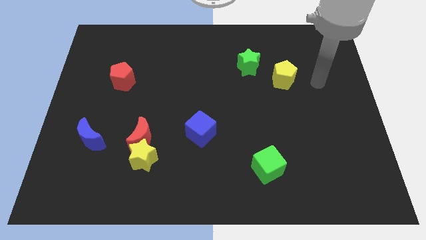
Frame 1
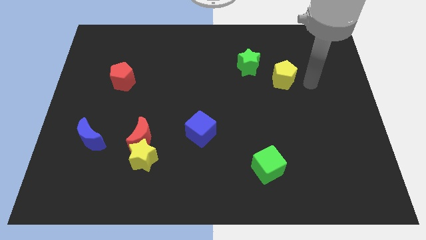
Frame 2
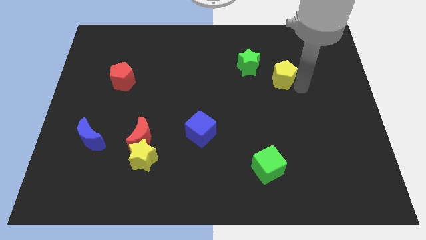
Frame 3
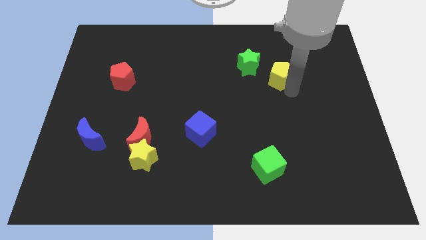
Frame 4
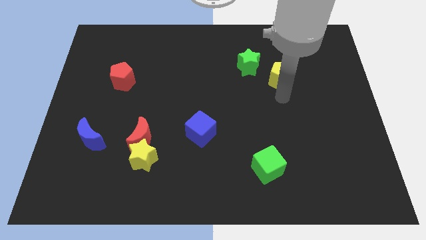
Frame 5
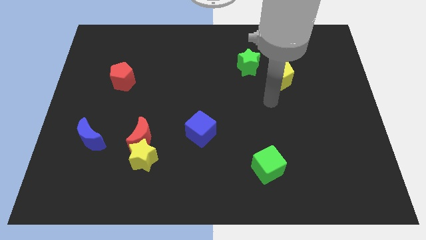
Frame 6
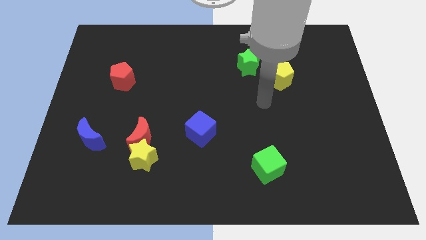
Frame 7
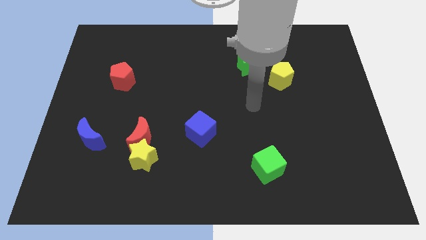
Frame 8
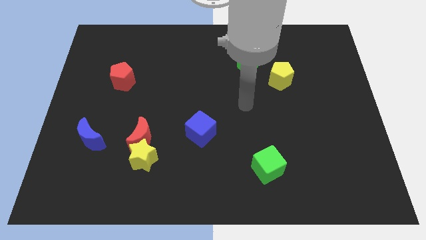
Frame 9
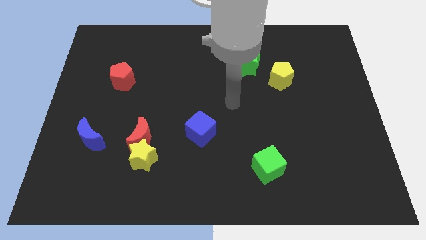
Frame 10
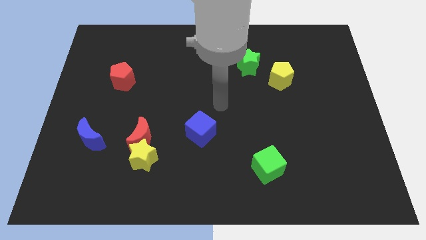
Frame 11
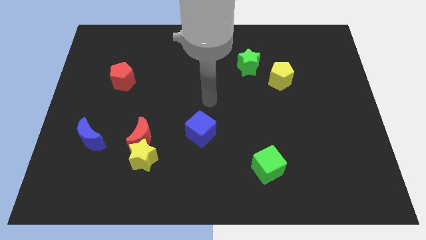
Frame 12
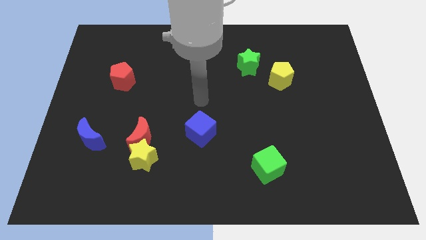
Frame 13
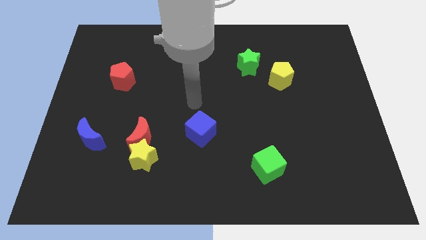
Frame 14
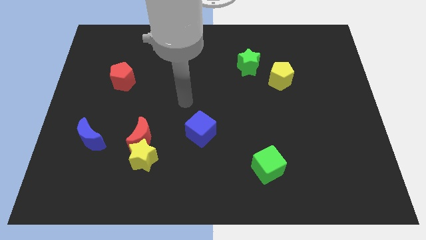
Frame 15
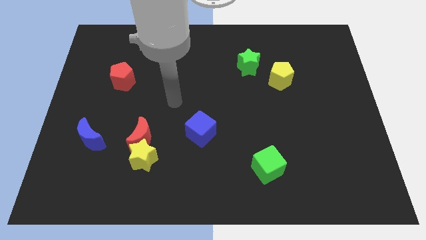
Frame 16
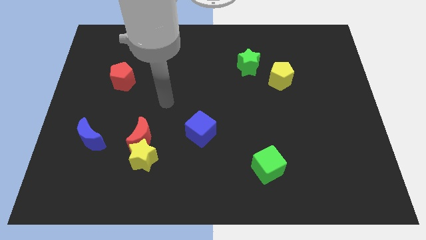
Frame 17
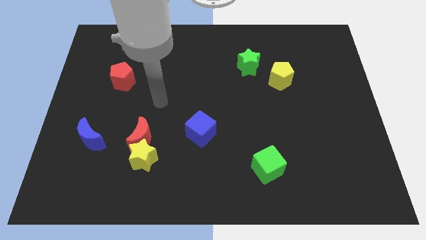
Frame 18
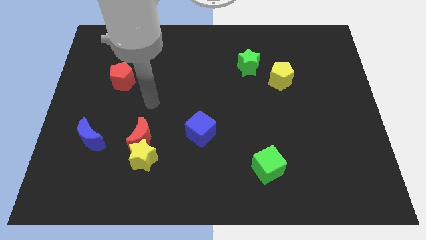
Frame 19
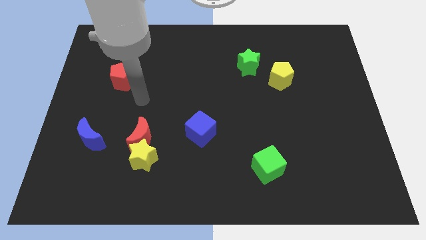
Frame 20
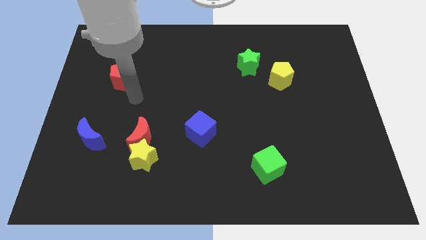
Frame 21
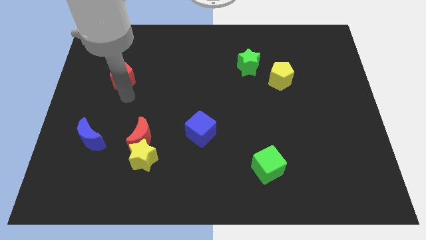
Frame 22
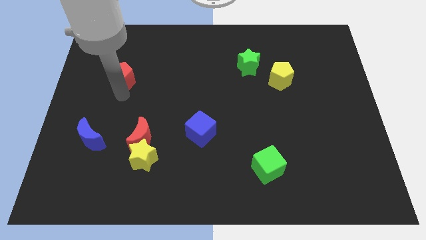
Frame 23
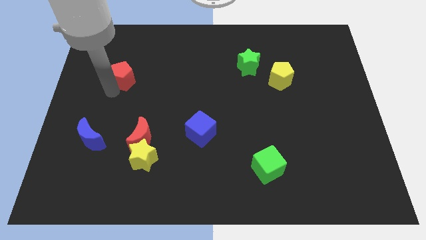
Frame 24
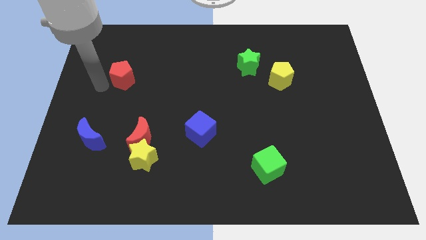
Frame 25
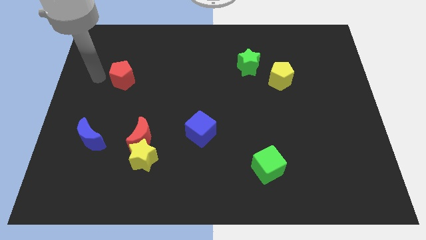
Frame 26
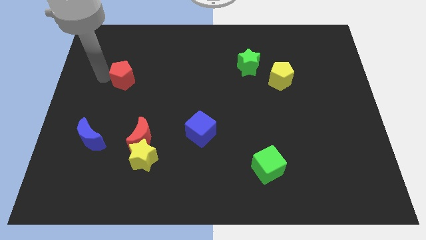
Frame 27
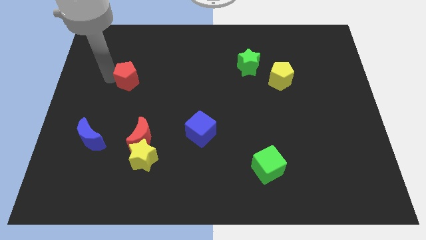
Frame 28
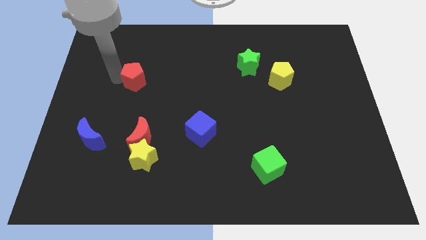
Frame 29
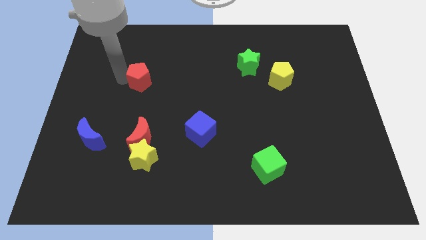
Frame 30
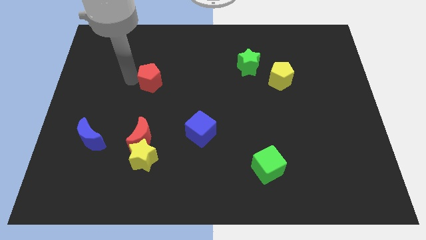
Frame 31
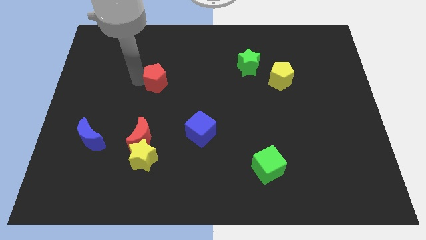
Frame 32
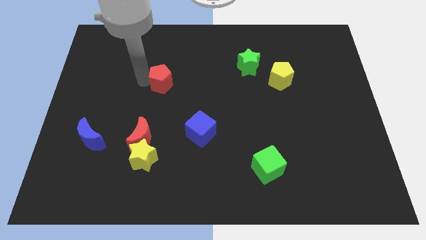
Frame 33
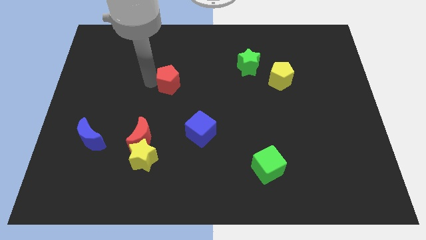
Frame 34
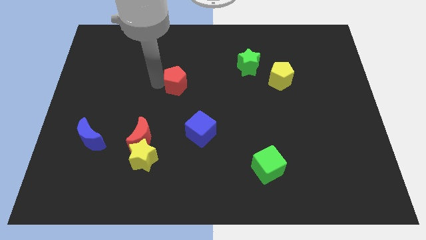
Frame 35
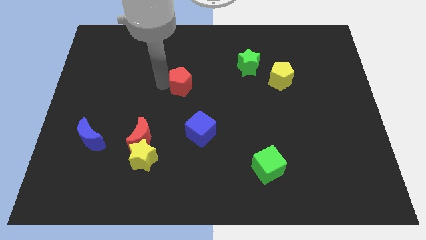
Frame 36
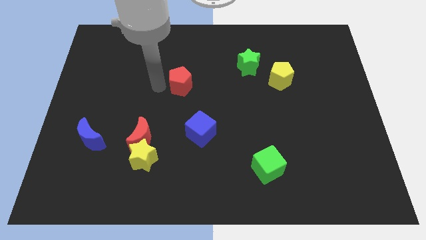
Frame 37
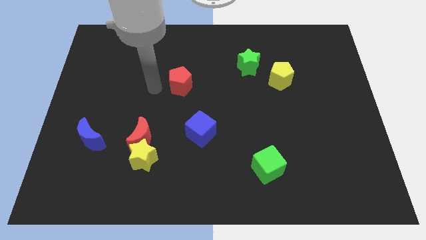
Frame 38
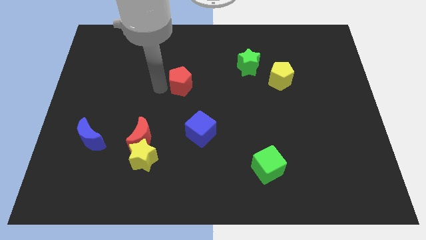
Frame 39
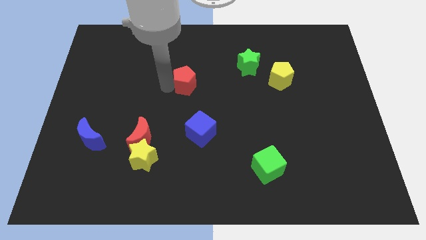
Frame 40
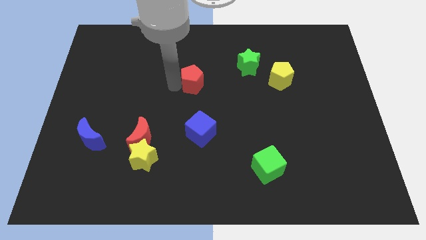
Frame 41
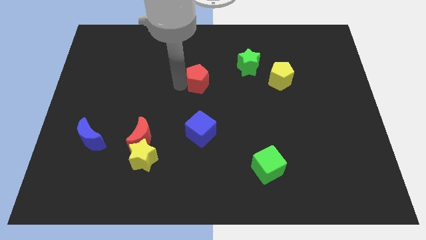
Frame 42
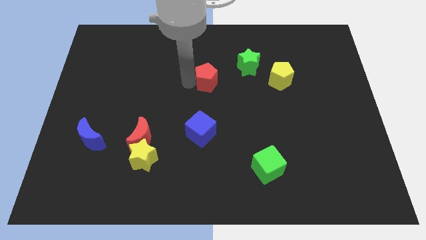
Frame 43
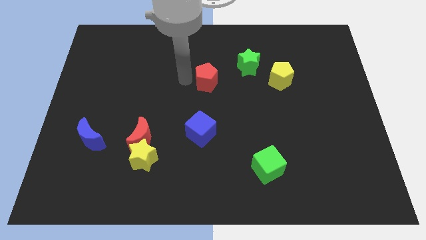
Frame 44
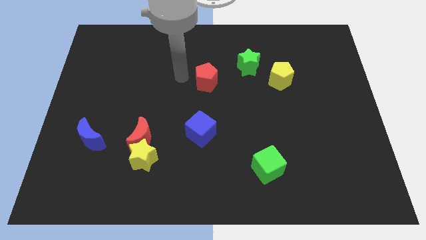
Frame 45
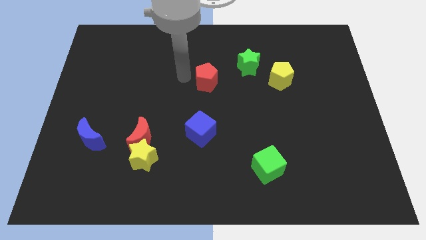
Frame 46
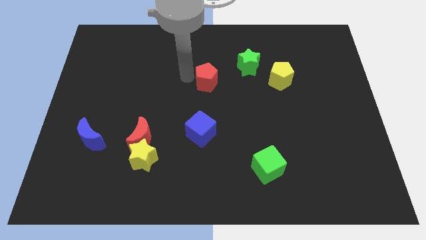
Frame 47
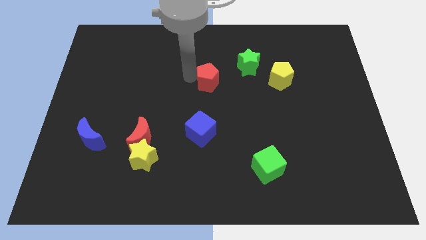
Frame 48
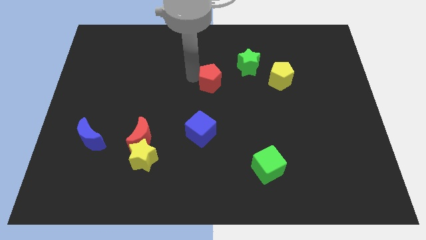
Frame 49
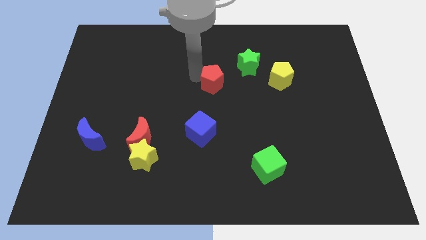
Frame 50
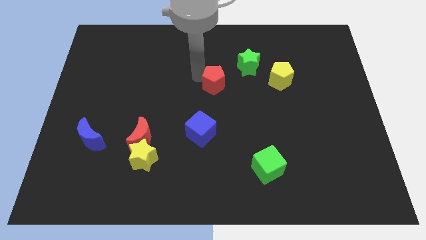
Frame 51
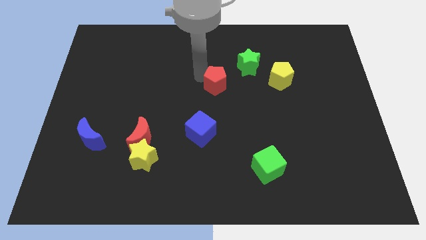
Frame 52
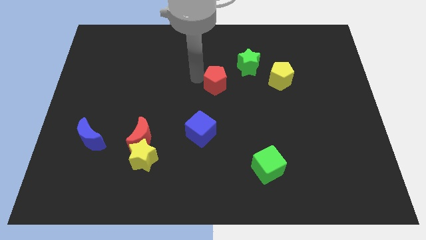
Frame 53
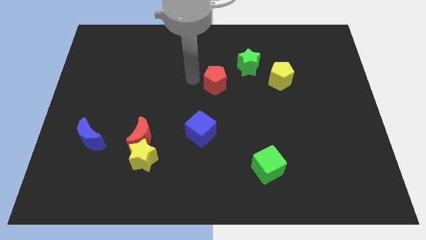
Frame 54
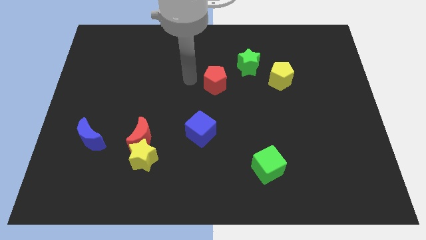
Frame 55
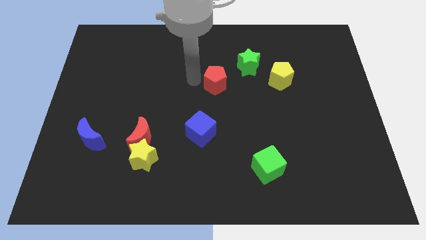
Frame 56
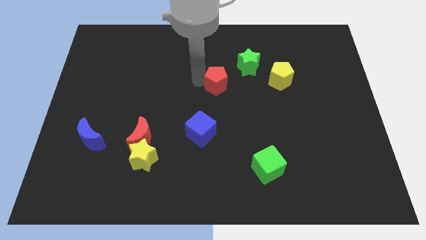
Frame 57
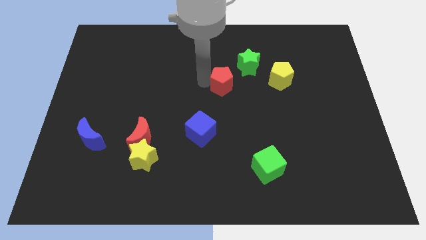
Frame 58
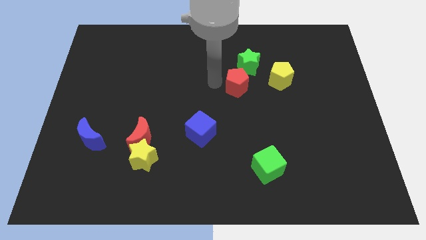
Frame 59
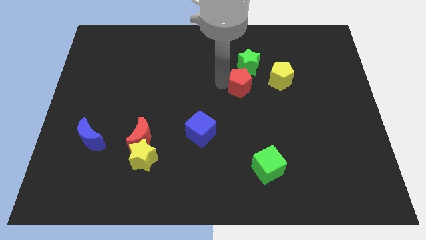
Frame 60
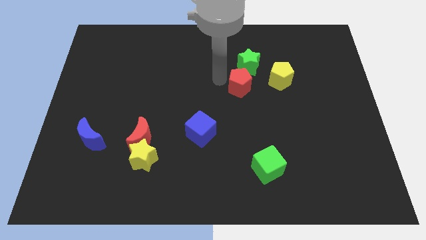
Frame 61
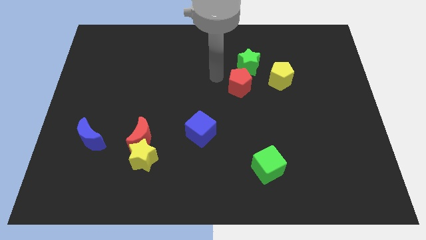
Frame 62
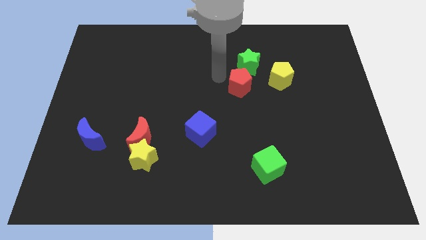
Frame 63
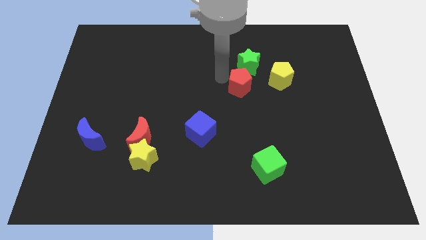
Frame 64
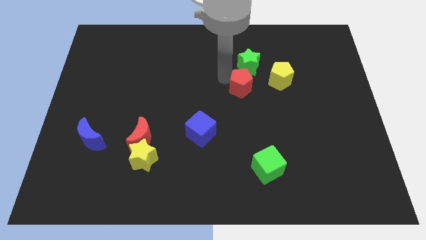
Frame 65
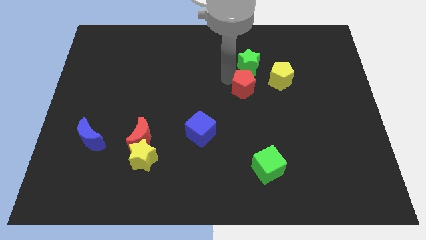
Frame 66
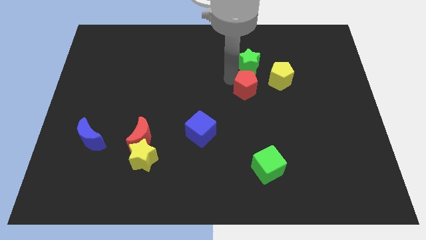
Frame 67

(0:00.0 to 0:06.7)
put the red pentagon to the bottom left side of the yellow pentagon

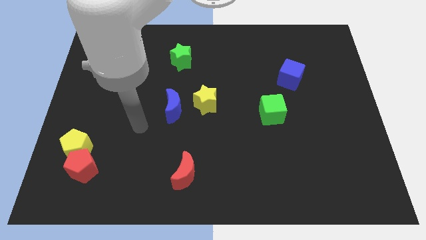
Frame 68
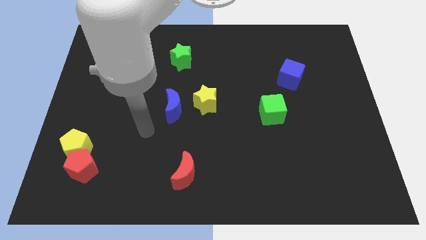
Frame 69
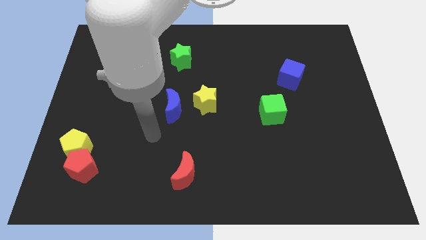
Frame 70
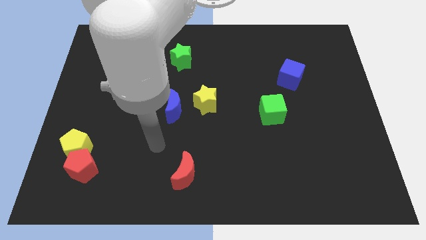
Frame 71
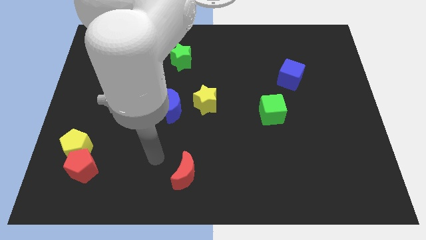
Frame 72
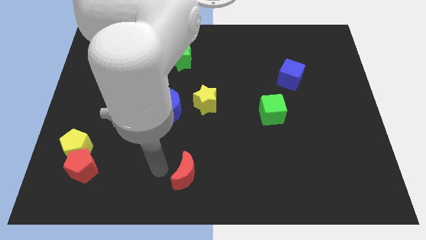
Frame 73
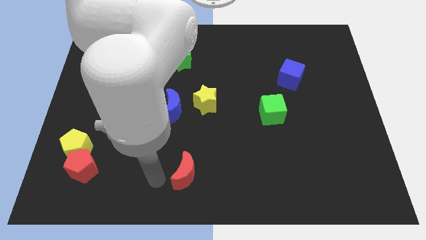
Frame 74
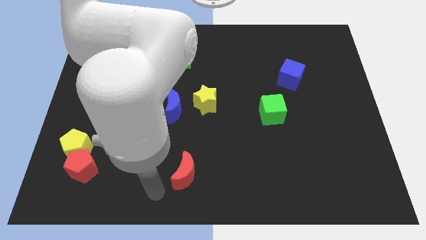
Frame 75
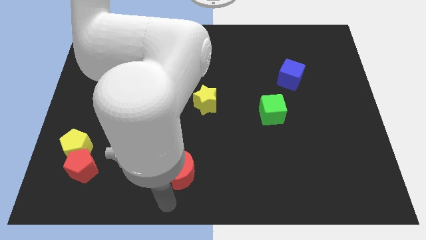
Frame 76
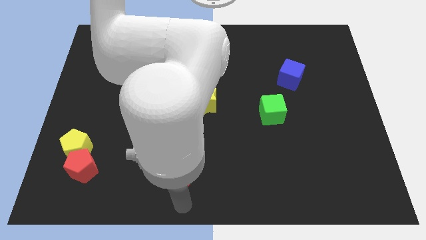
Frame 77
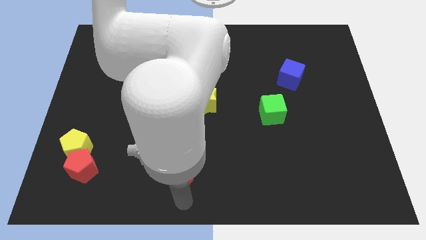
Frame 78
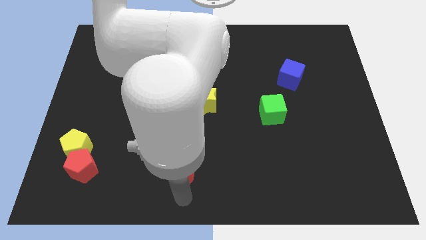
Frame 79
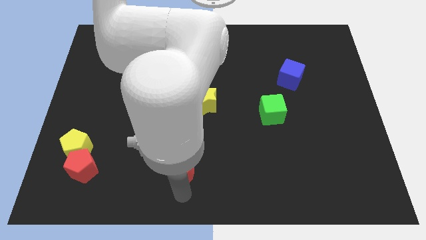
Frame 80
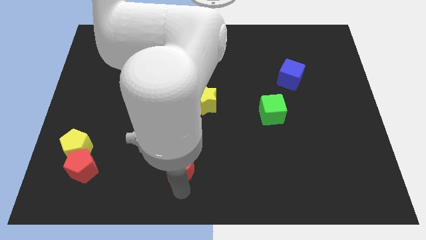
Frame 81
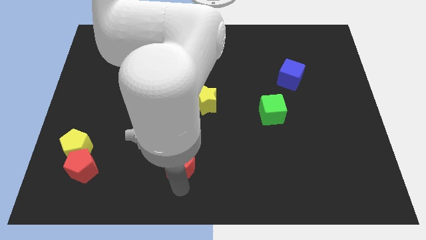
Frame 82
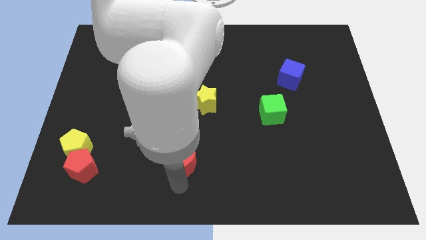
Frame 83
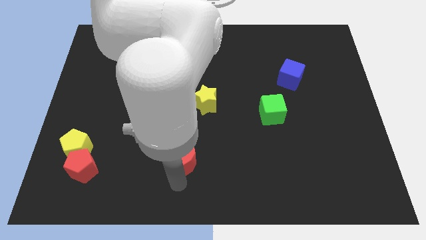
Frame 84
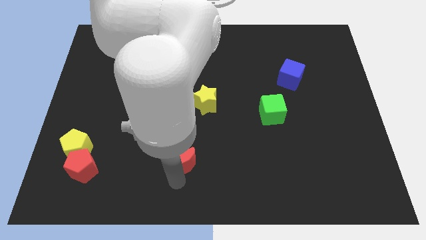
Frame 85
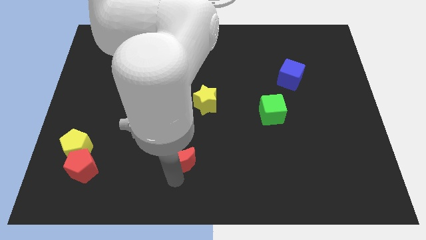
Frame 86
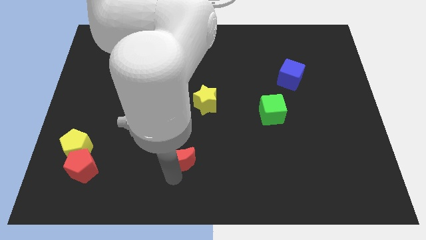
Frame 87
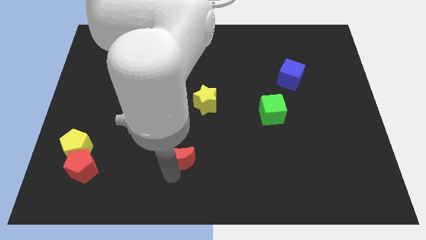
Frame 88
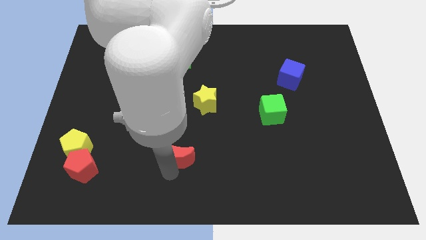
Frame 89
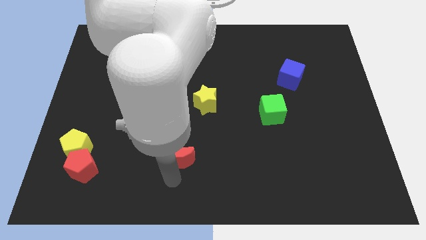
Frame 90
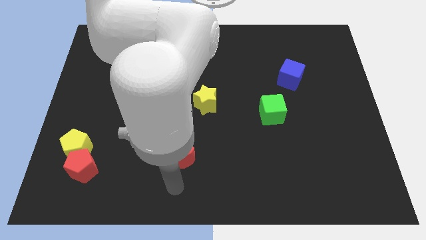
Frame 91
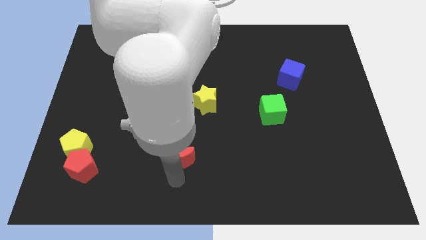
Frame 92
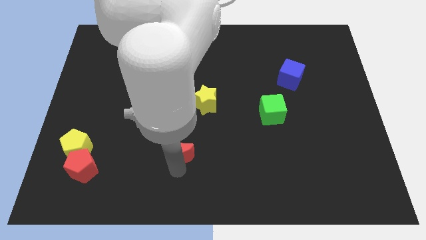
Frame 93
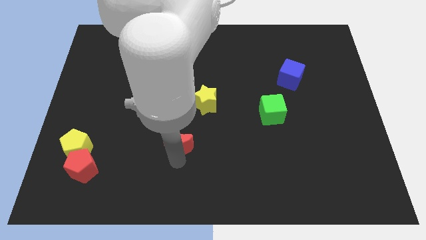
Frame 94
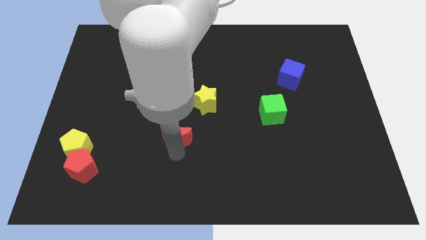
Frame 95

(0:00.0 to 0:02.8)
slide the red moon to the bottom left of the yellow star
